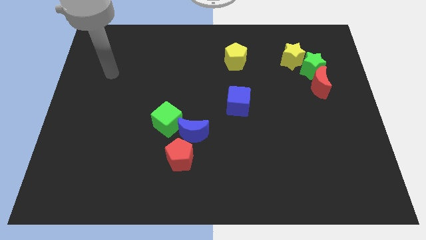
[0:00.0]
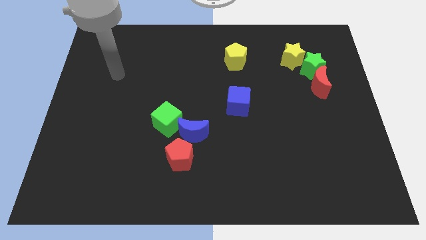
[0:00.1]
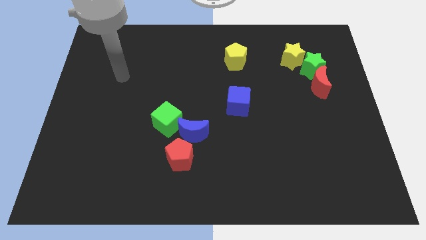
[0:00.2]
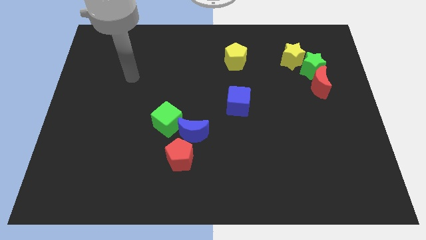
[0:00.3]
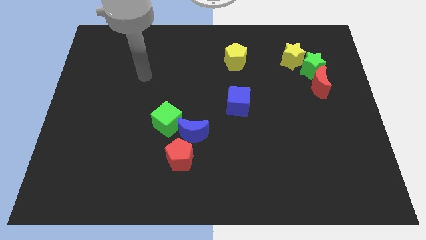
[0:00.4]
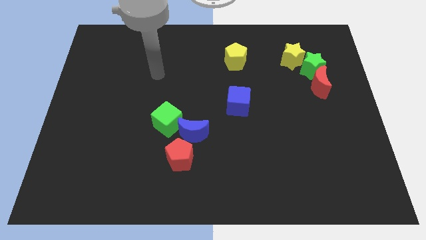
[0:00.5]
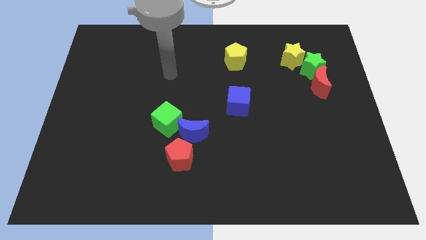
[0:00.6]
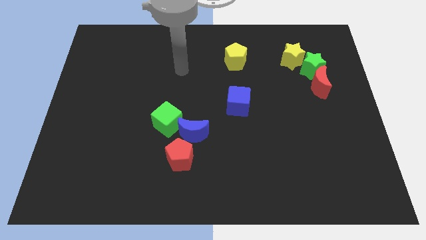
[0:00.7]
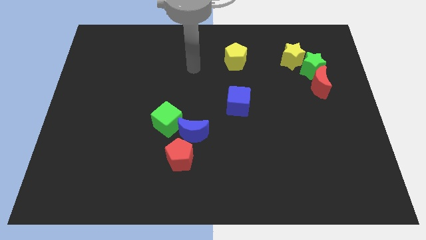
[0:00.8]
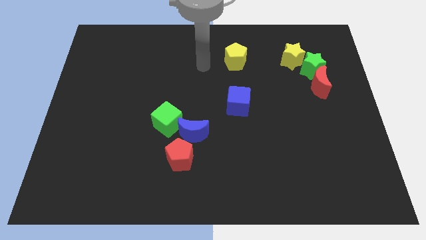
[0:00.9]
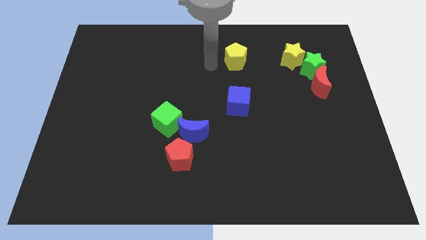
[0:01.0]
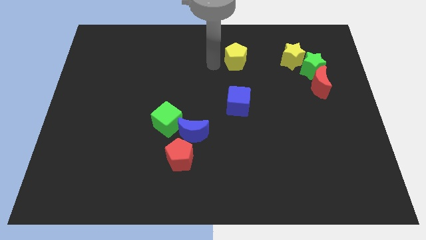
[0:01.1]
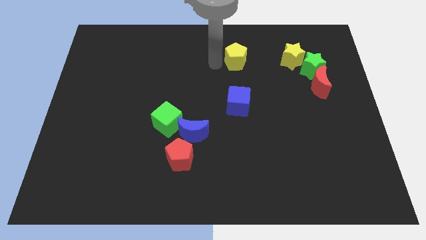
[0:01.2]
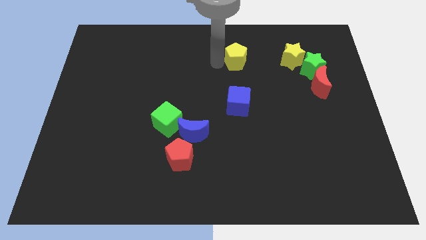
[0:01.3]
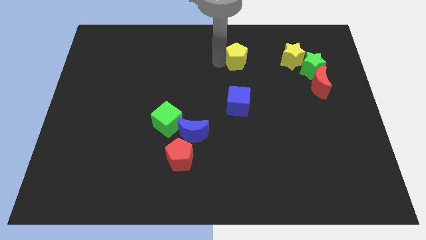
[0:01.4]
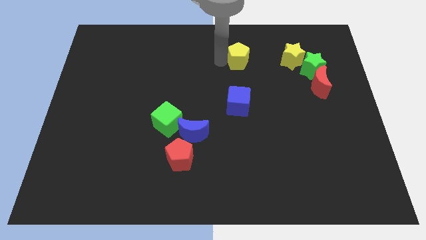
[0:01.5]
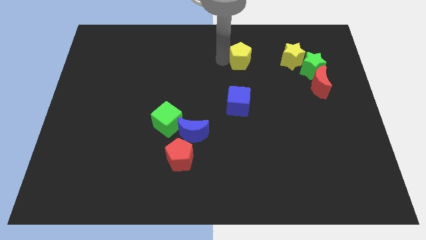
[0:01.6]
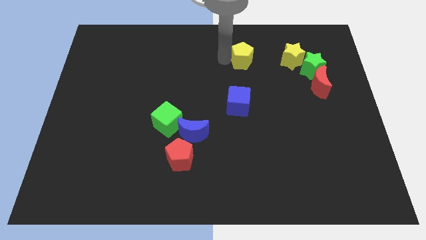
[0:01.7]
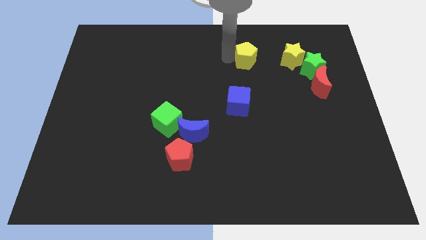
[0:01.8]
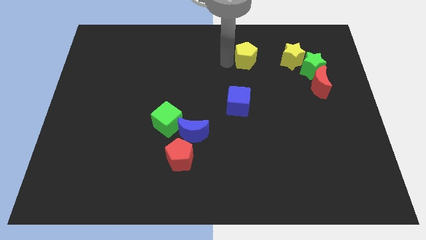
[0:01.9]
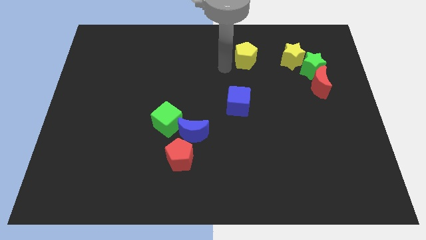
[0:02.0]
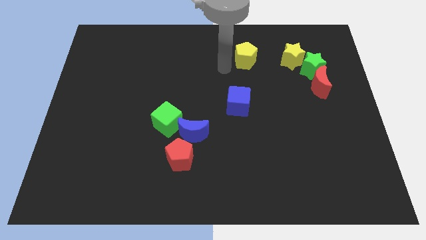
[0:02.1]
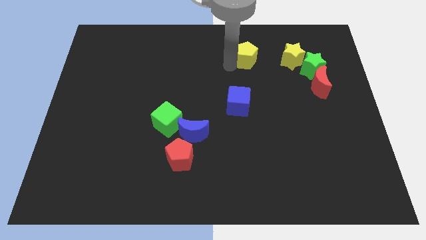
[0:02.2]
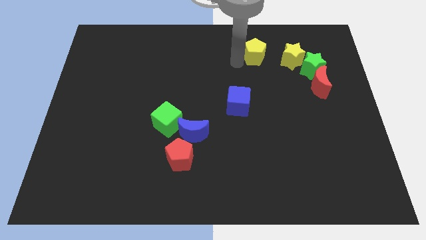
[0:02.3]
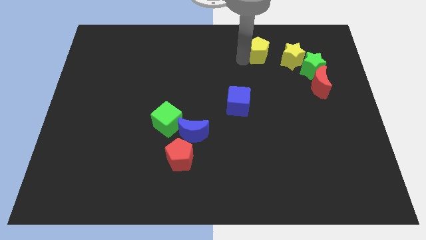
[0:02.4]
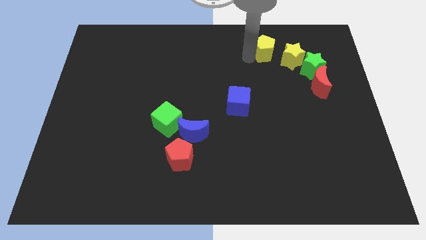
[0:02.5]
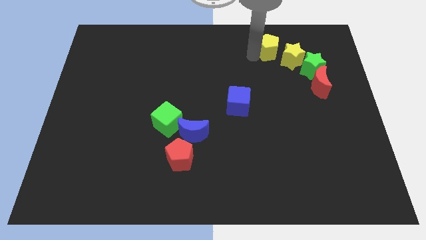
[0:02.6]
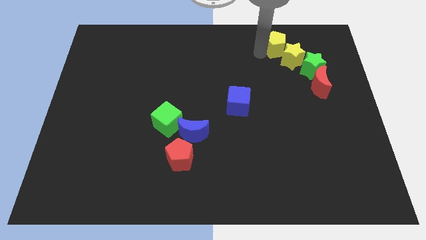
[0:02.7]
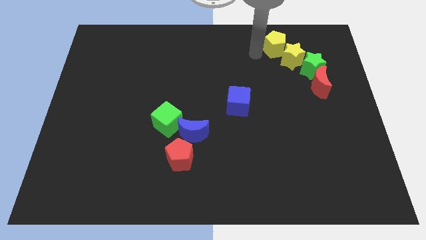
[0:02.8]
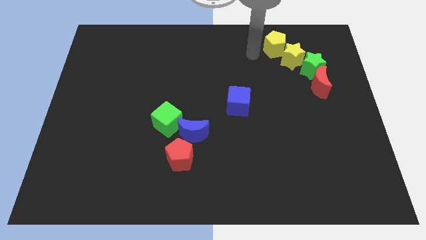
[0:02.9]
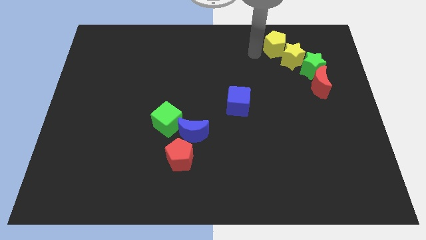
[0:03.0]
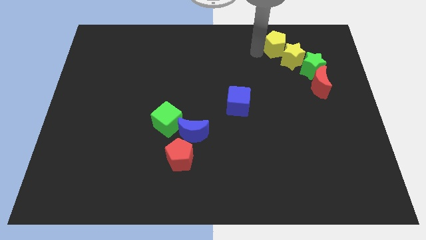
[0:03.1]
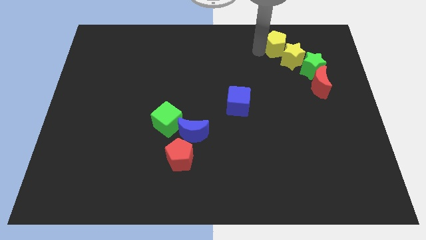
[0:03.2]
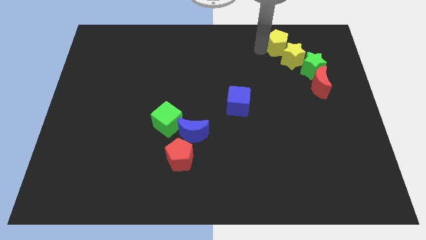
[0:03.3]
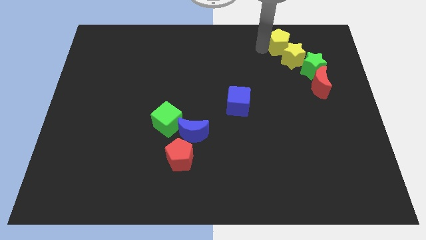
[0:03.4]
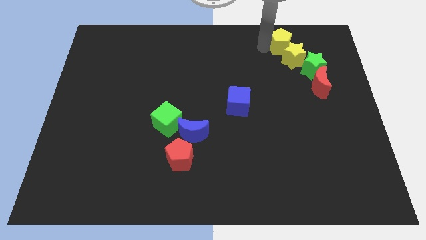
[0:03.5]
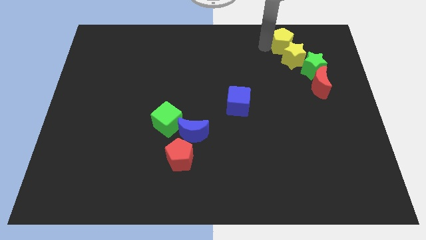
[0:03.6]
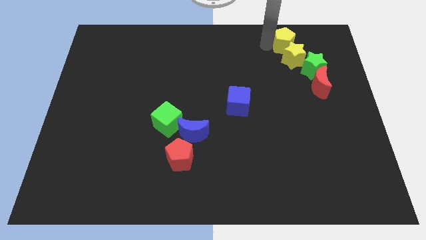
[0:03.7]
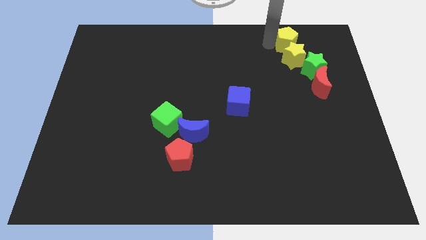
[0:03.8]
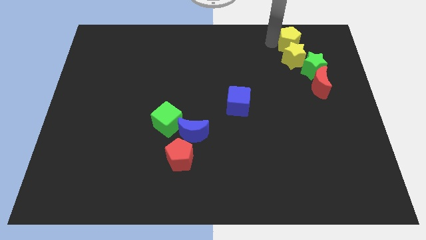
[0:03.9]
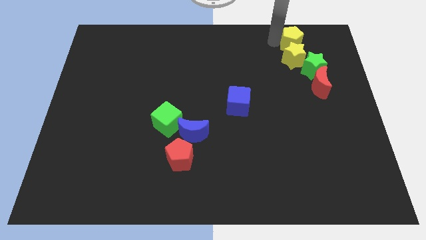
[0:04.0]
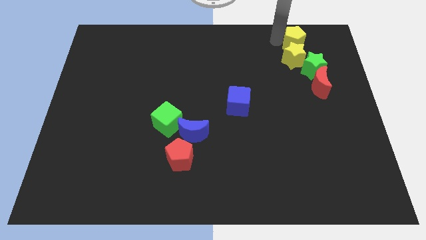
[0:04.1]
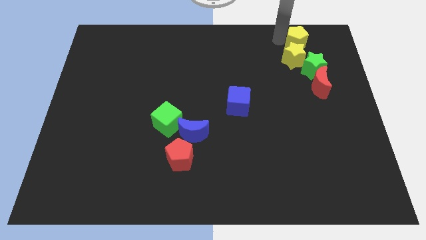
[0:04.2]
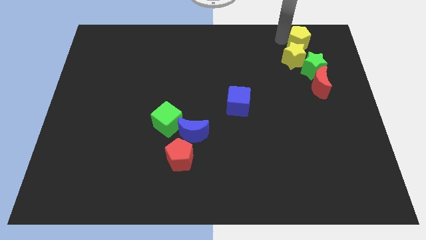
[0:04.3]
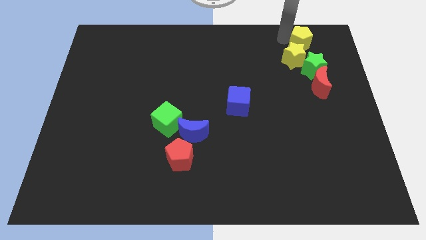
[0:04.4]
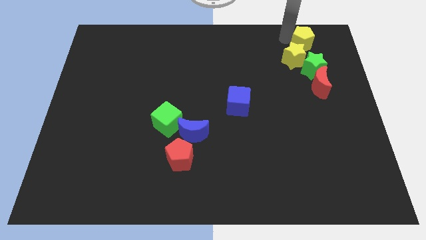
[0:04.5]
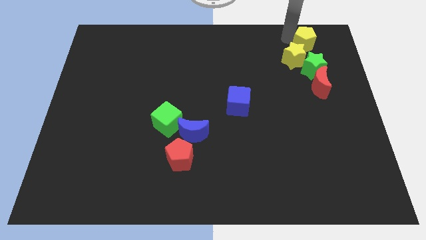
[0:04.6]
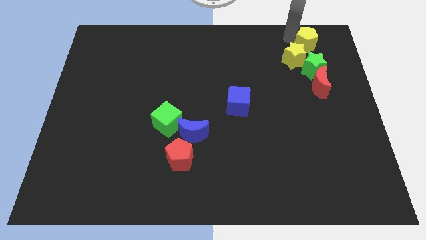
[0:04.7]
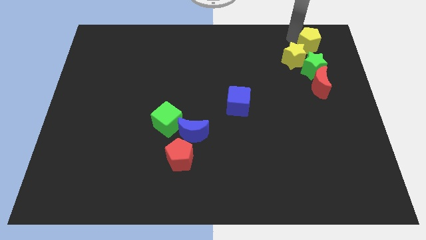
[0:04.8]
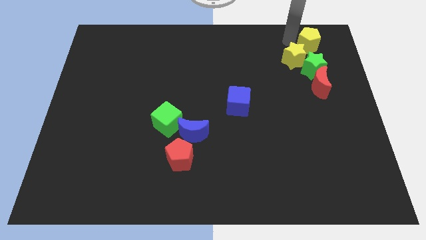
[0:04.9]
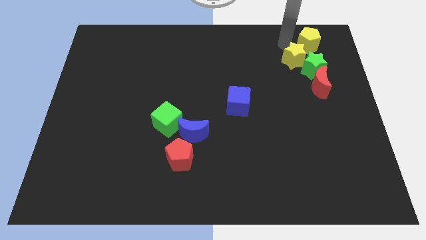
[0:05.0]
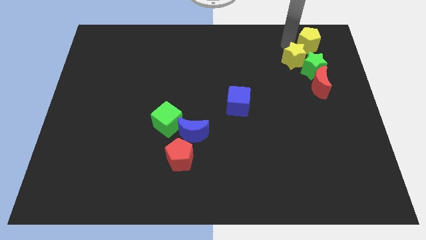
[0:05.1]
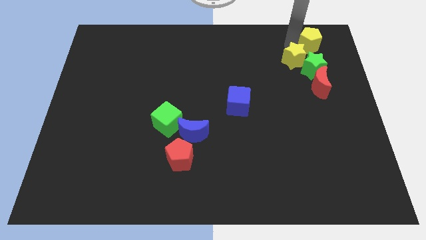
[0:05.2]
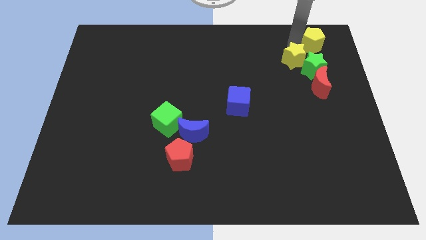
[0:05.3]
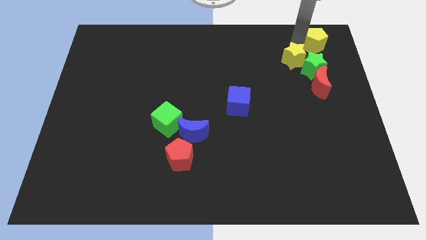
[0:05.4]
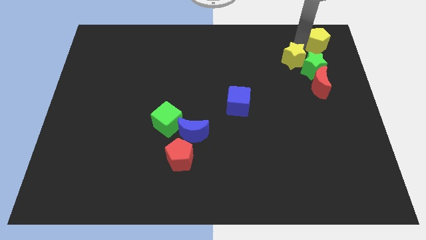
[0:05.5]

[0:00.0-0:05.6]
put the yellow pentagon to the top right
